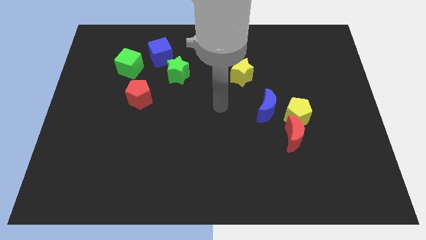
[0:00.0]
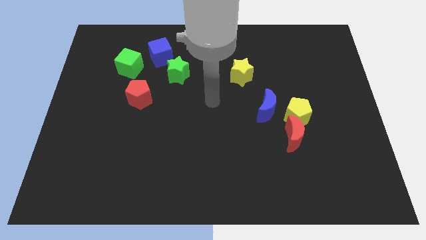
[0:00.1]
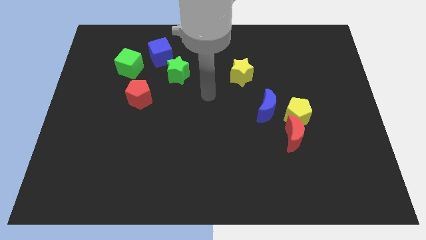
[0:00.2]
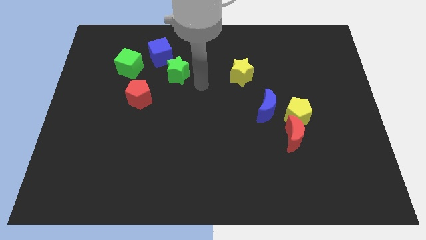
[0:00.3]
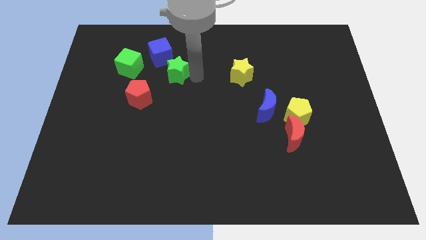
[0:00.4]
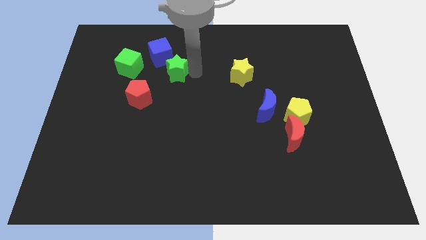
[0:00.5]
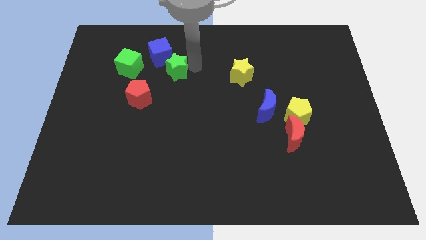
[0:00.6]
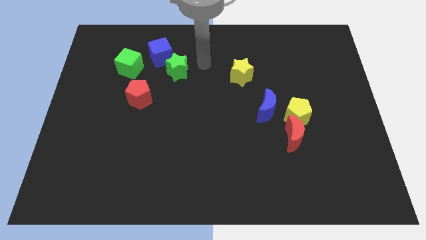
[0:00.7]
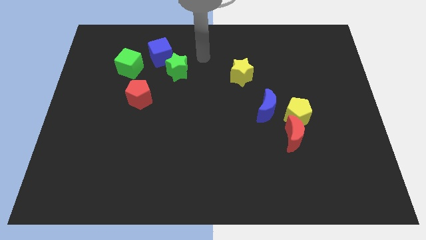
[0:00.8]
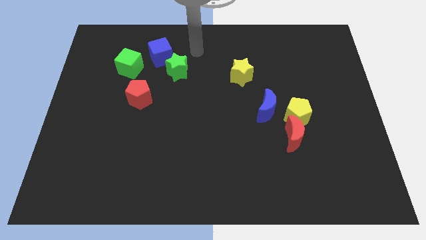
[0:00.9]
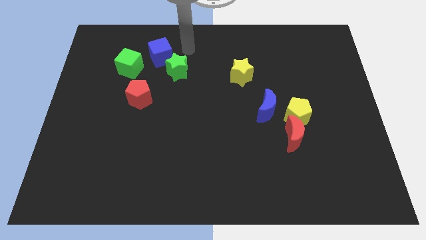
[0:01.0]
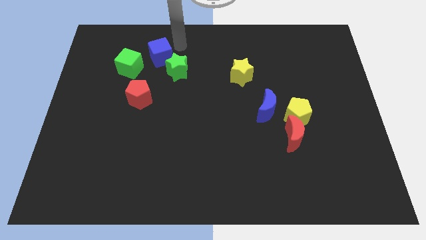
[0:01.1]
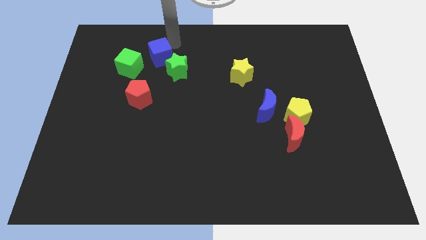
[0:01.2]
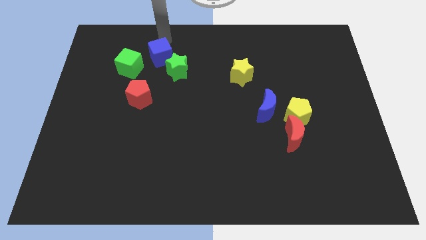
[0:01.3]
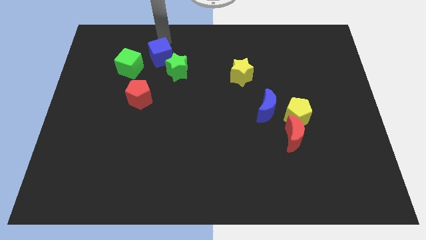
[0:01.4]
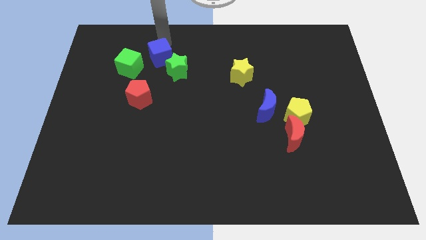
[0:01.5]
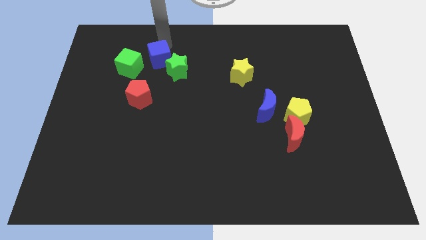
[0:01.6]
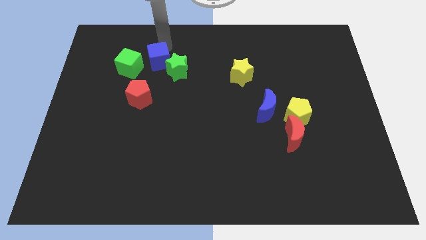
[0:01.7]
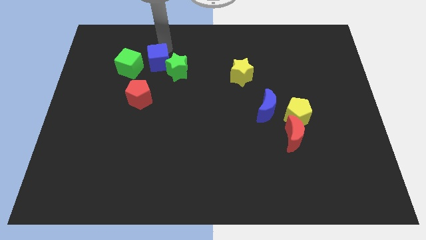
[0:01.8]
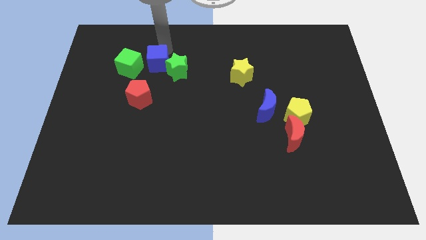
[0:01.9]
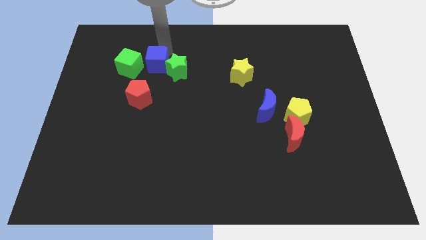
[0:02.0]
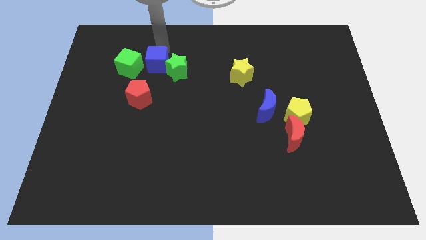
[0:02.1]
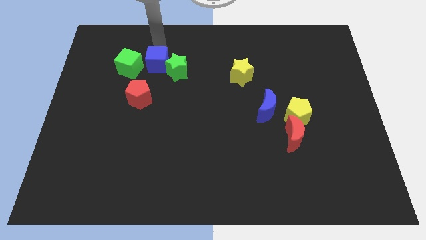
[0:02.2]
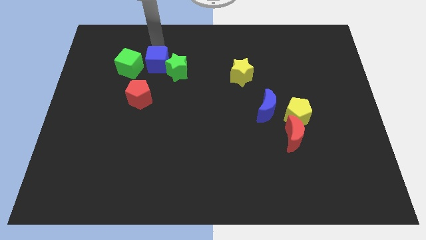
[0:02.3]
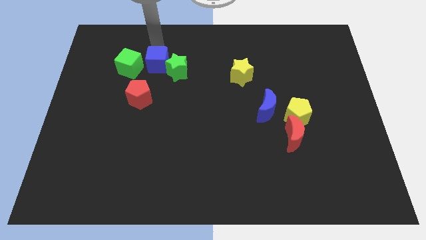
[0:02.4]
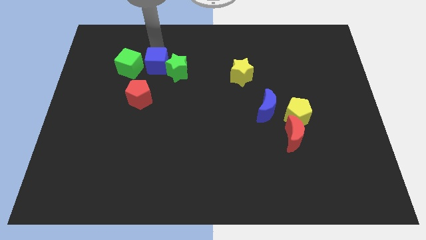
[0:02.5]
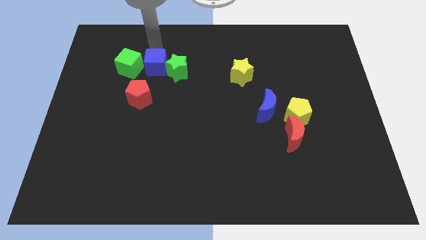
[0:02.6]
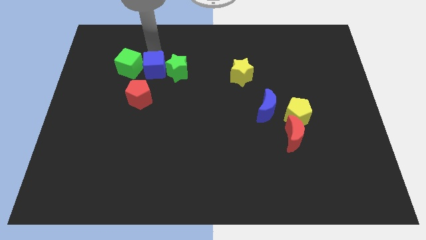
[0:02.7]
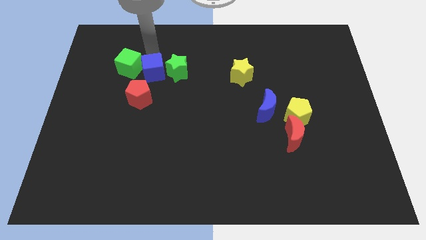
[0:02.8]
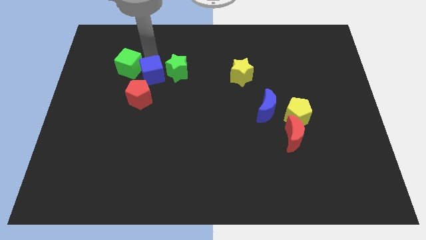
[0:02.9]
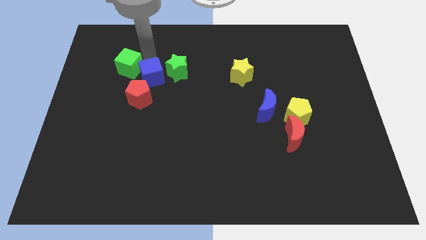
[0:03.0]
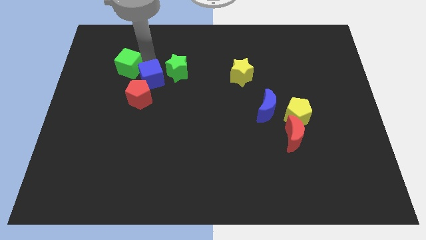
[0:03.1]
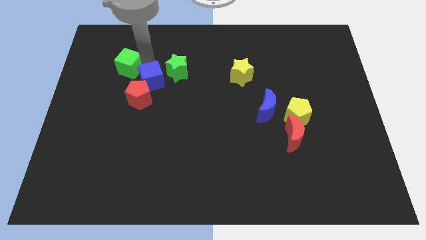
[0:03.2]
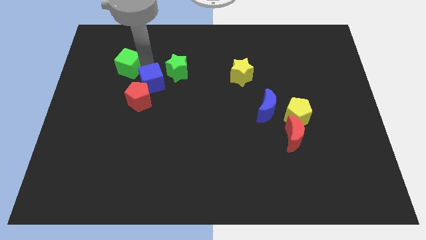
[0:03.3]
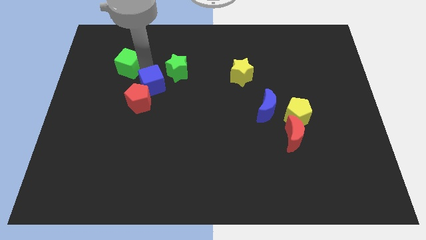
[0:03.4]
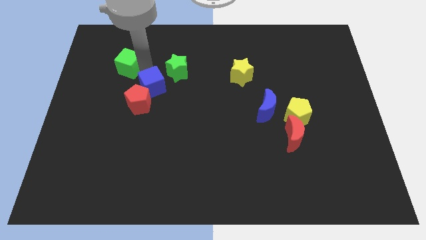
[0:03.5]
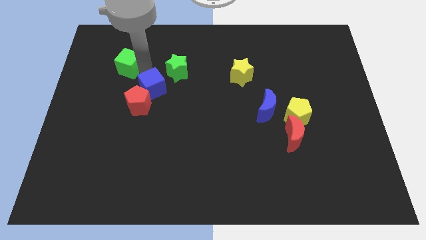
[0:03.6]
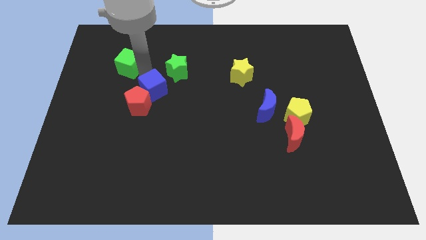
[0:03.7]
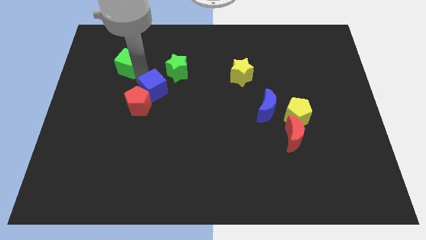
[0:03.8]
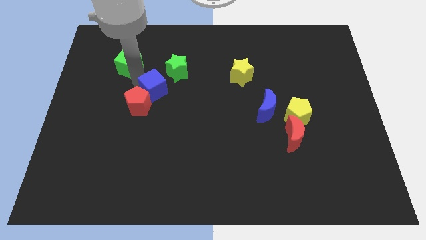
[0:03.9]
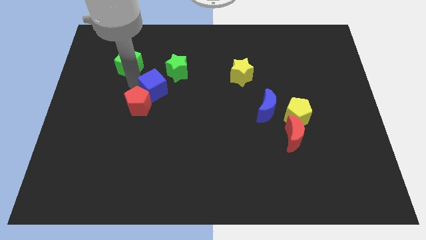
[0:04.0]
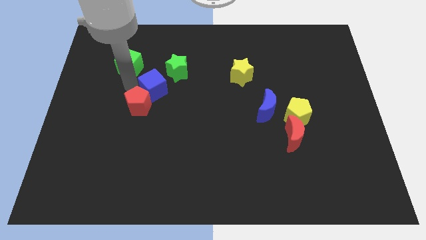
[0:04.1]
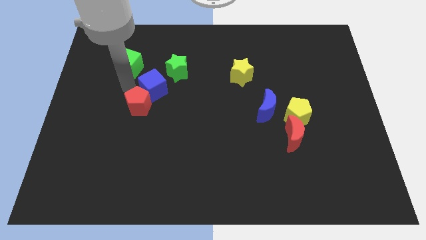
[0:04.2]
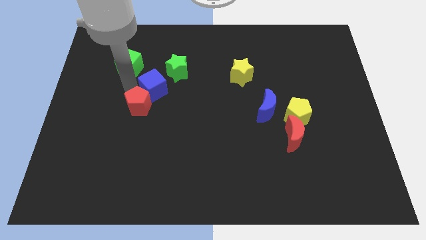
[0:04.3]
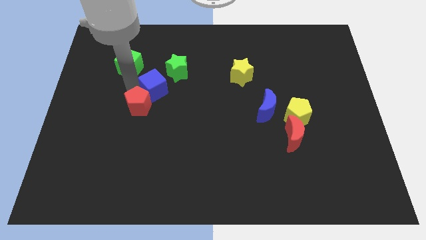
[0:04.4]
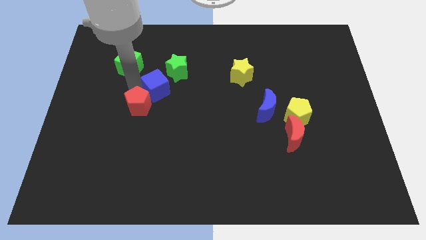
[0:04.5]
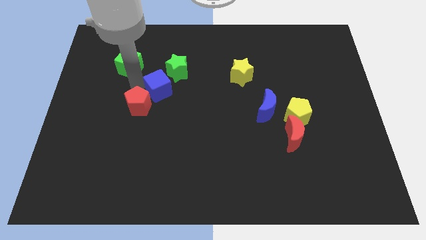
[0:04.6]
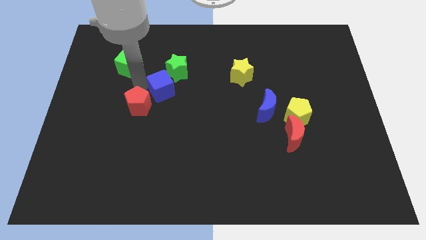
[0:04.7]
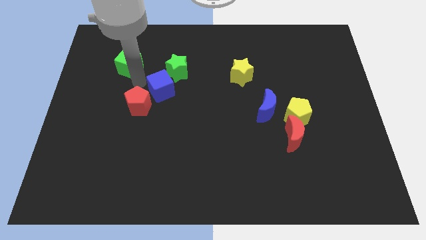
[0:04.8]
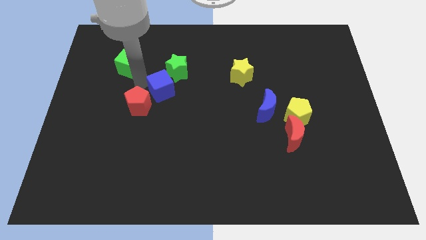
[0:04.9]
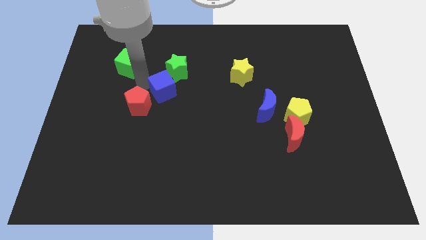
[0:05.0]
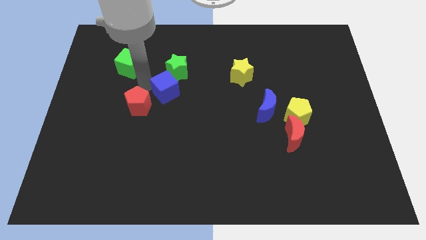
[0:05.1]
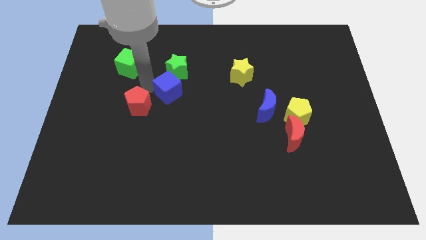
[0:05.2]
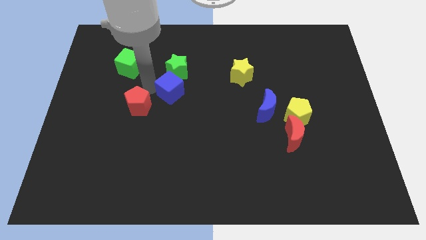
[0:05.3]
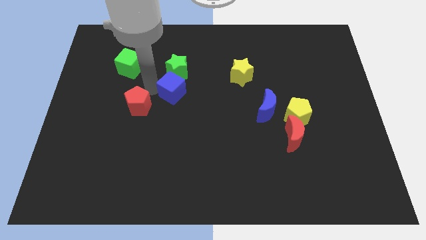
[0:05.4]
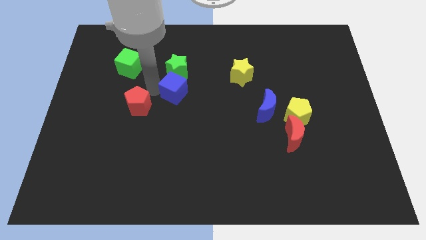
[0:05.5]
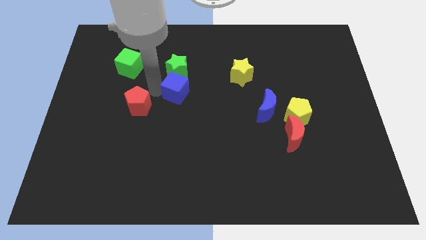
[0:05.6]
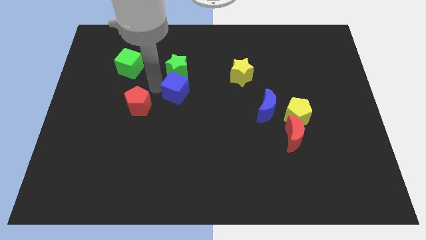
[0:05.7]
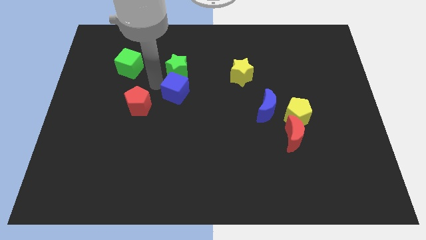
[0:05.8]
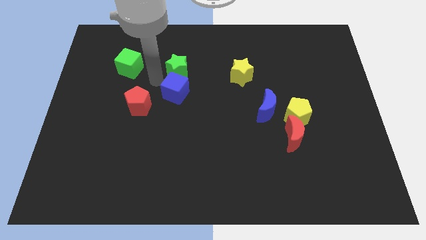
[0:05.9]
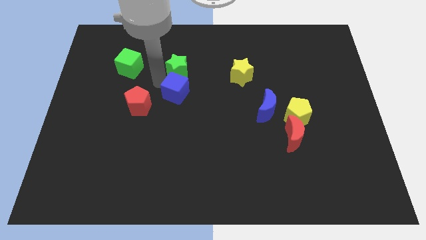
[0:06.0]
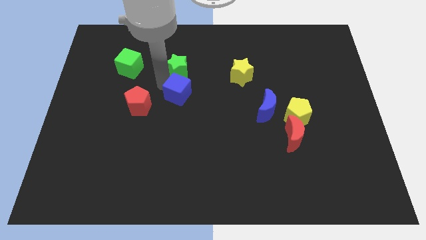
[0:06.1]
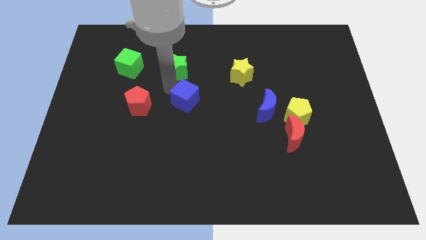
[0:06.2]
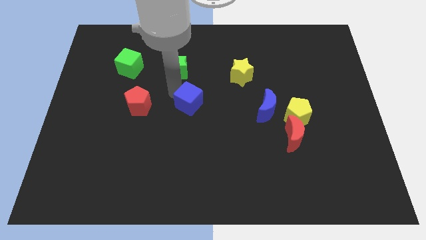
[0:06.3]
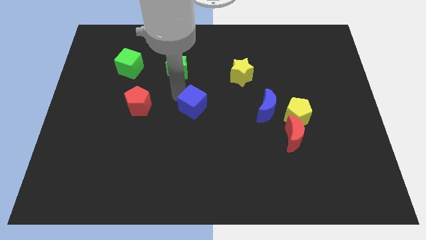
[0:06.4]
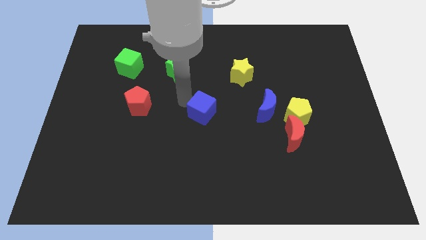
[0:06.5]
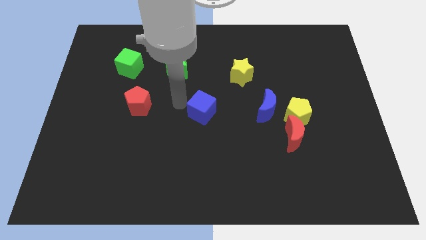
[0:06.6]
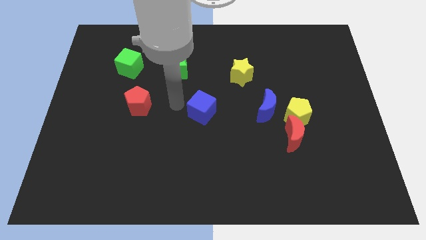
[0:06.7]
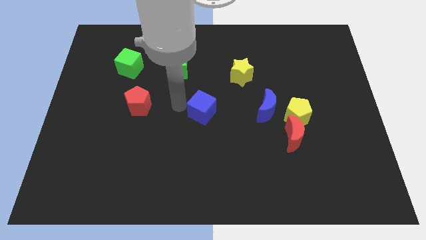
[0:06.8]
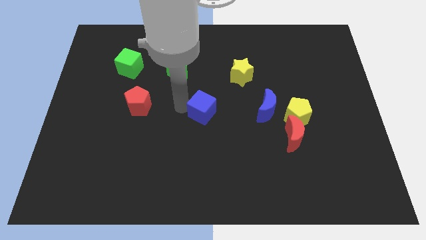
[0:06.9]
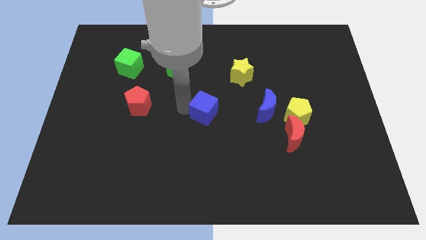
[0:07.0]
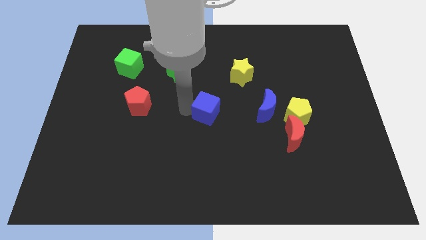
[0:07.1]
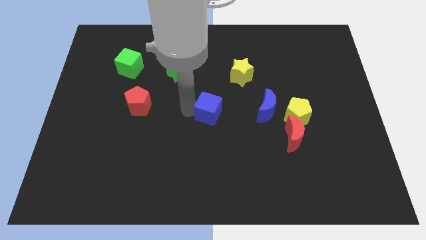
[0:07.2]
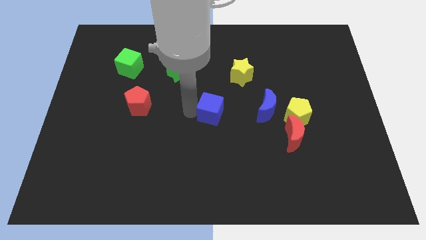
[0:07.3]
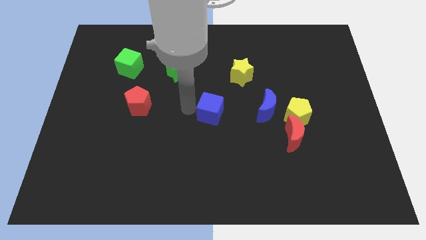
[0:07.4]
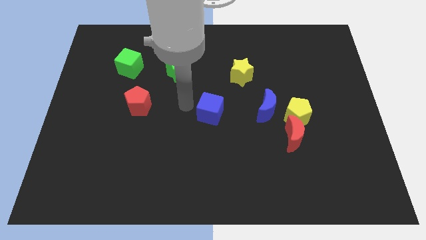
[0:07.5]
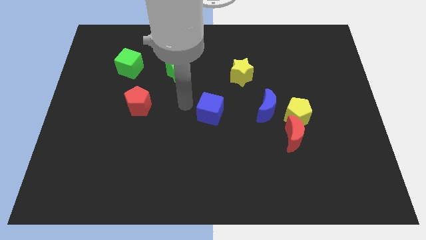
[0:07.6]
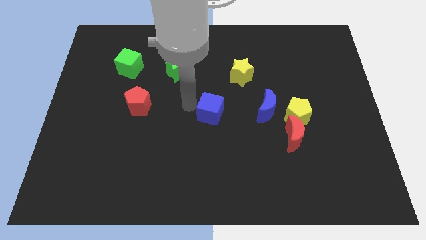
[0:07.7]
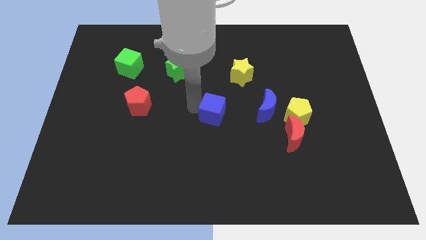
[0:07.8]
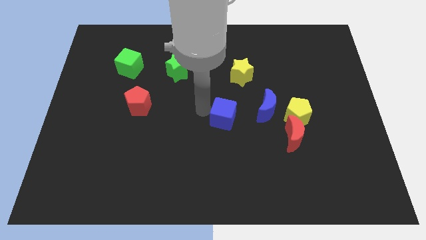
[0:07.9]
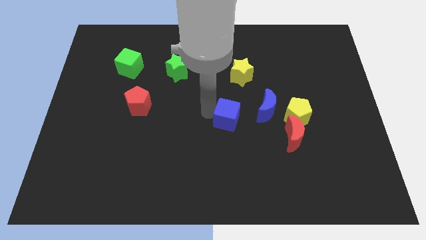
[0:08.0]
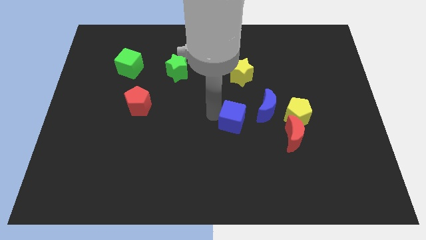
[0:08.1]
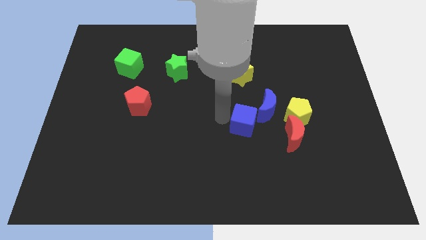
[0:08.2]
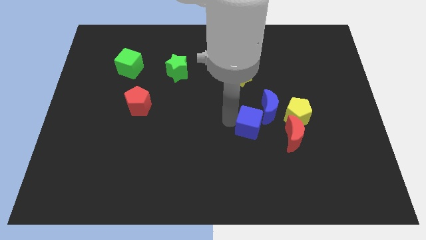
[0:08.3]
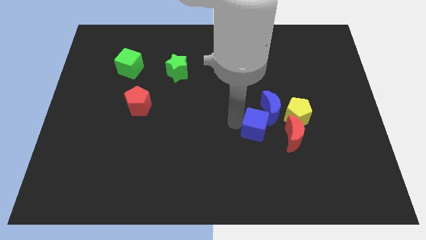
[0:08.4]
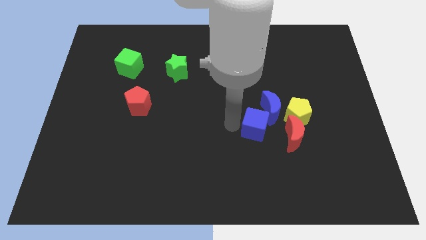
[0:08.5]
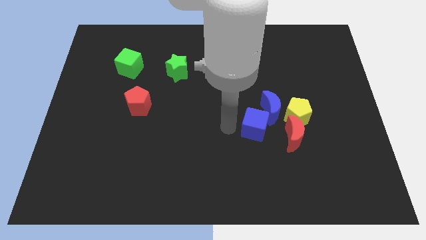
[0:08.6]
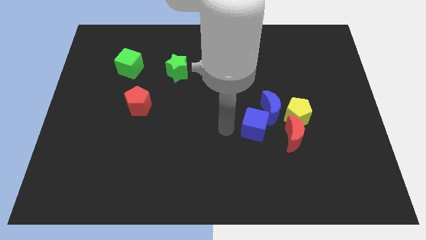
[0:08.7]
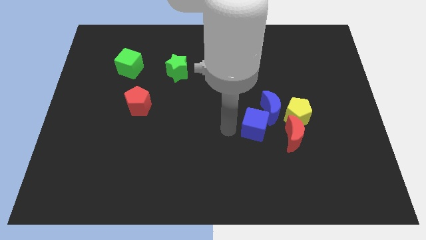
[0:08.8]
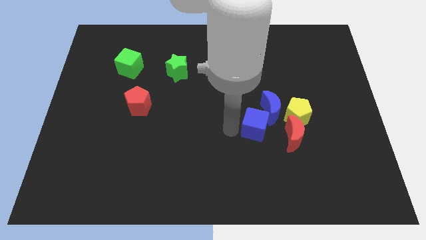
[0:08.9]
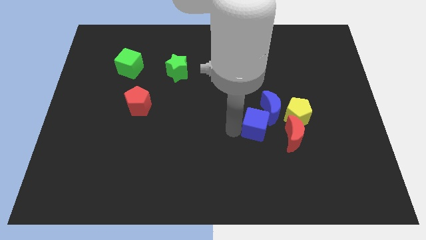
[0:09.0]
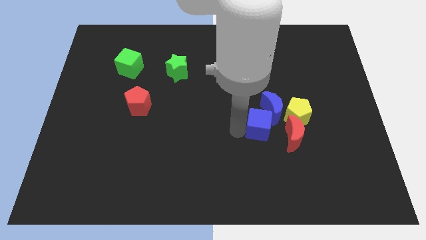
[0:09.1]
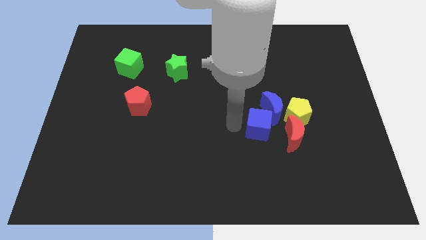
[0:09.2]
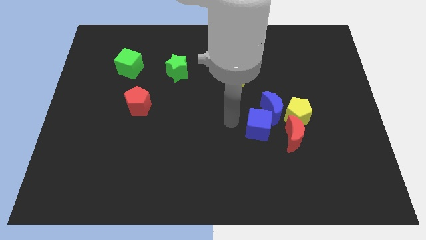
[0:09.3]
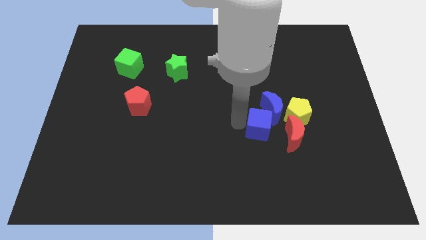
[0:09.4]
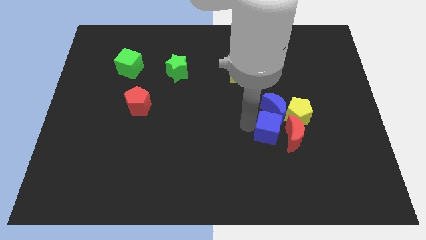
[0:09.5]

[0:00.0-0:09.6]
put the blue cube next to the red moon
